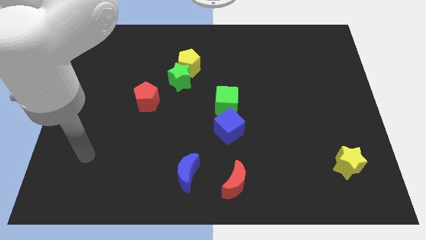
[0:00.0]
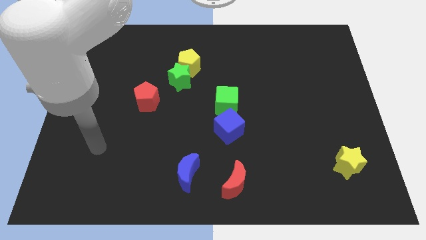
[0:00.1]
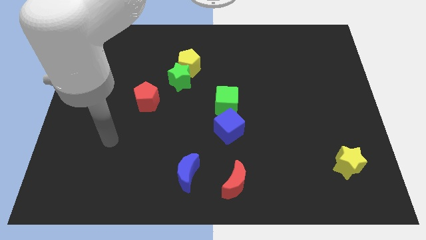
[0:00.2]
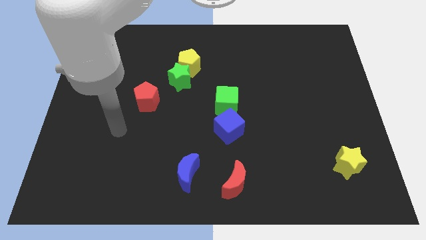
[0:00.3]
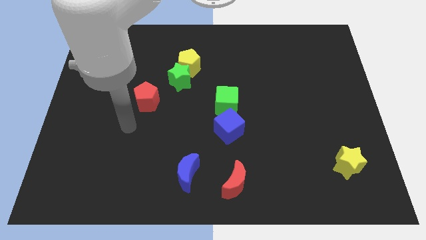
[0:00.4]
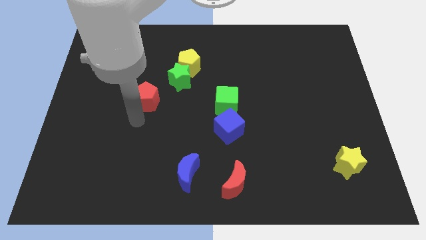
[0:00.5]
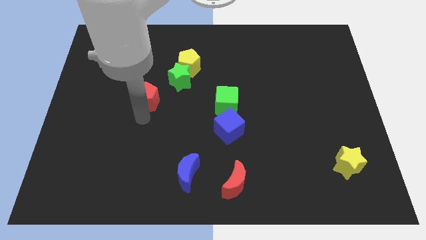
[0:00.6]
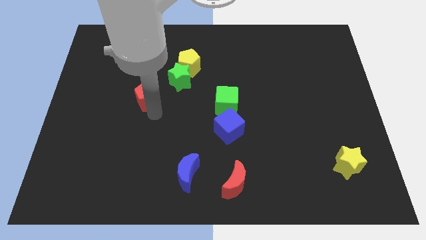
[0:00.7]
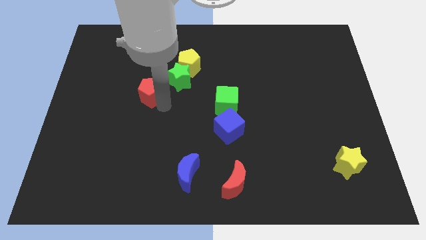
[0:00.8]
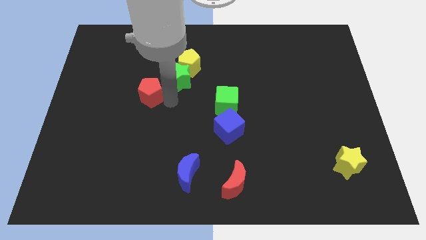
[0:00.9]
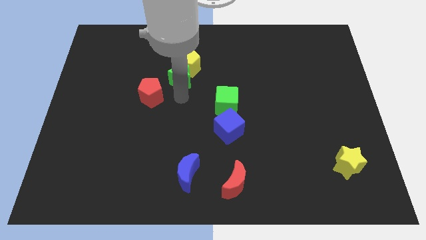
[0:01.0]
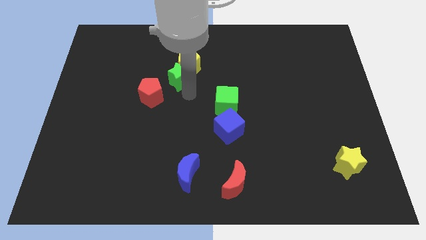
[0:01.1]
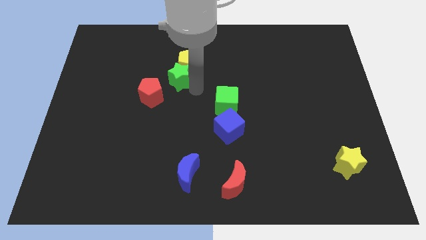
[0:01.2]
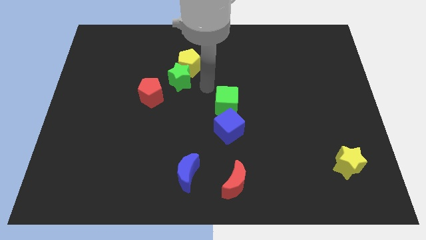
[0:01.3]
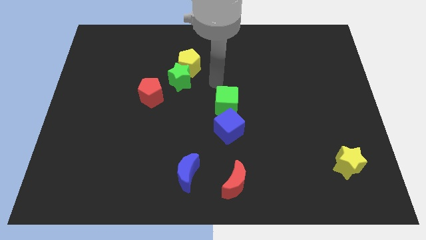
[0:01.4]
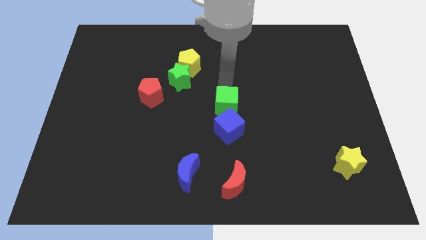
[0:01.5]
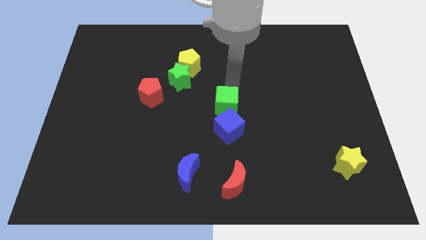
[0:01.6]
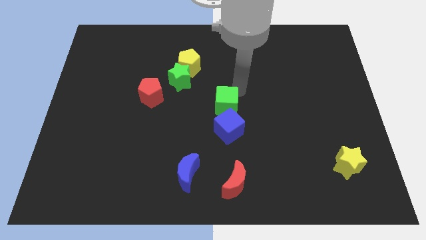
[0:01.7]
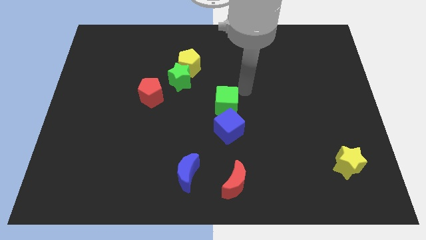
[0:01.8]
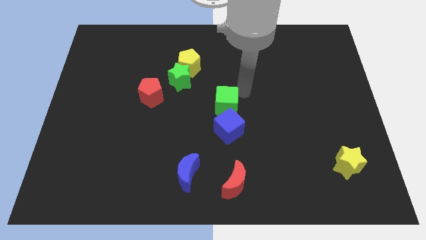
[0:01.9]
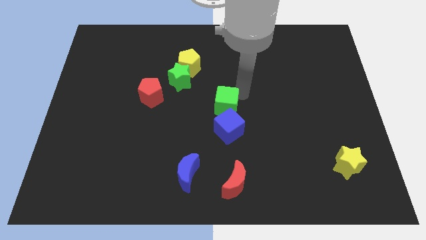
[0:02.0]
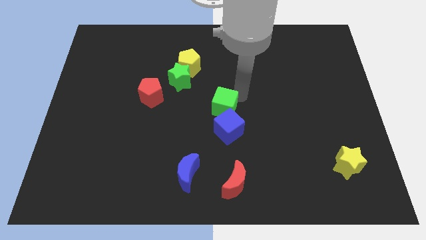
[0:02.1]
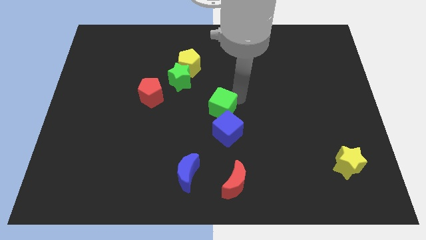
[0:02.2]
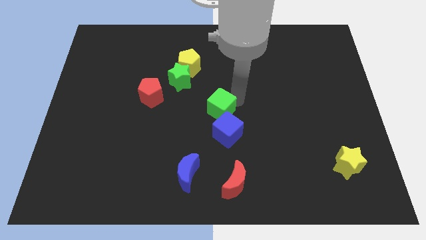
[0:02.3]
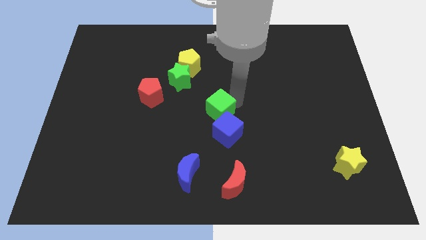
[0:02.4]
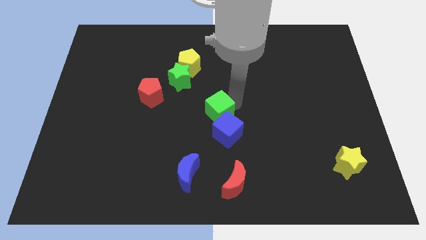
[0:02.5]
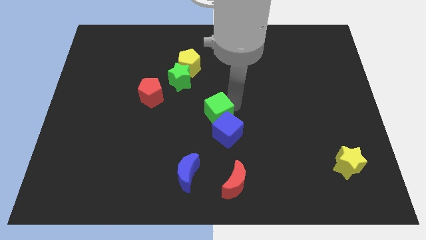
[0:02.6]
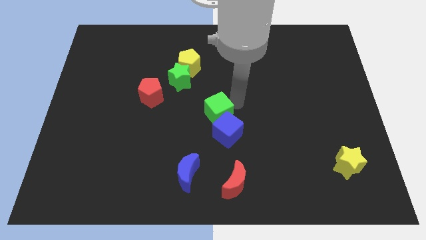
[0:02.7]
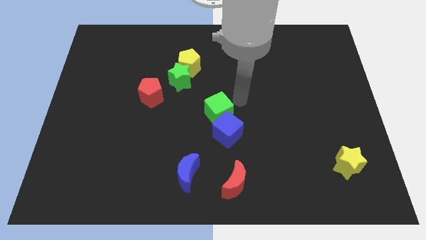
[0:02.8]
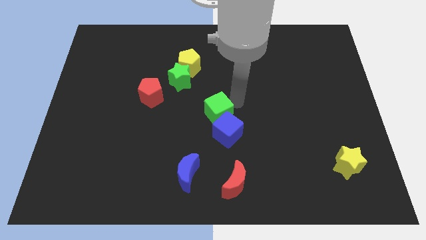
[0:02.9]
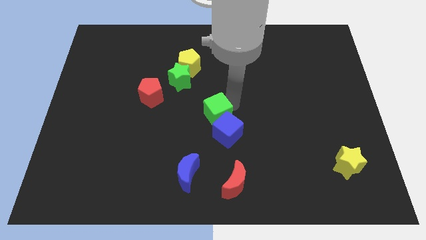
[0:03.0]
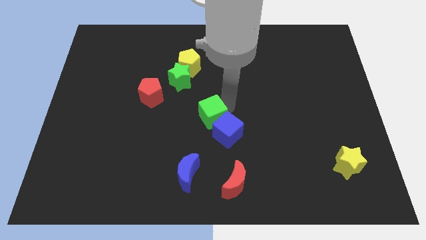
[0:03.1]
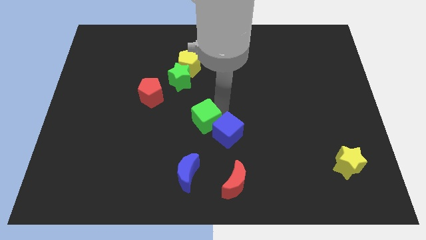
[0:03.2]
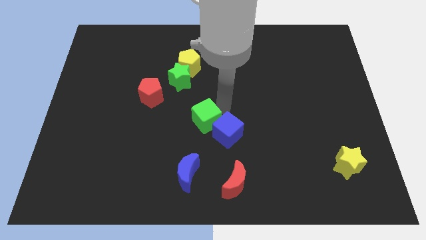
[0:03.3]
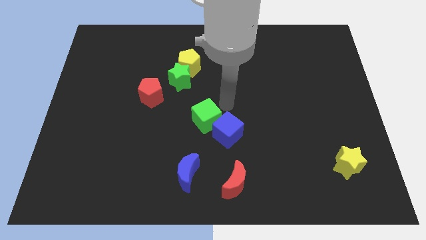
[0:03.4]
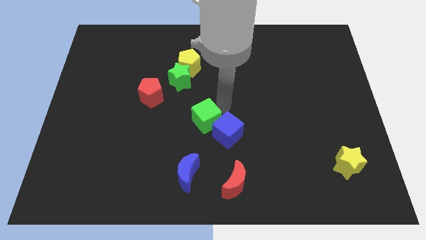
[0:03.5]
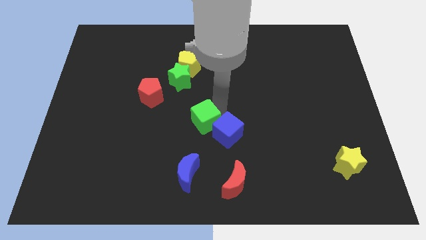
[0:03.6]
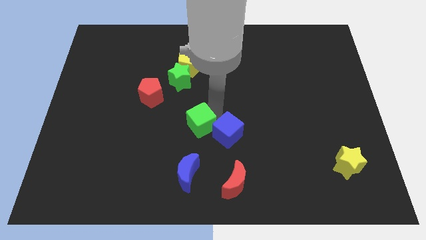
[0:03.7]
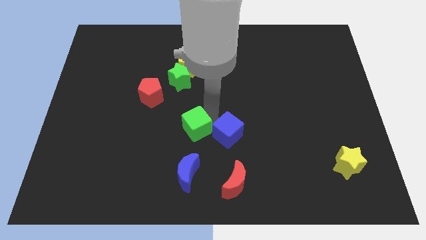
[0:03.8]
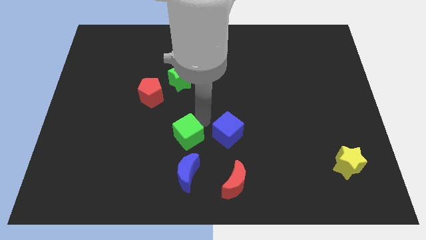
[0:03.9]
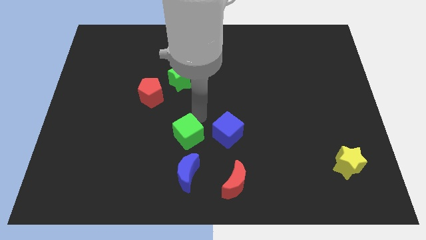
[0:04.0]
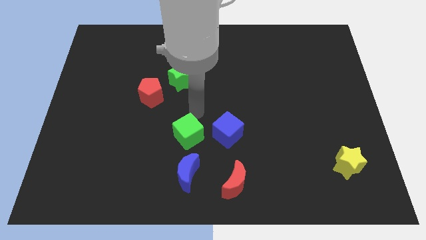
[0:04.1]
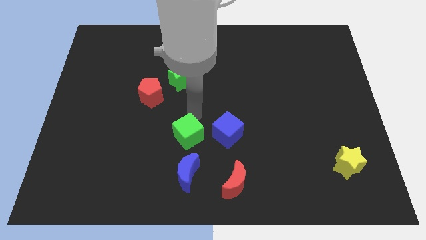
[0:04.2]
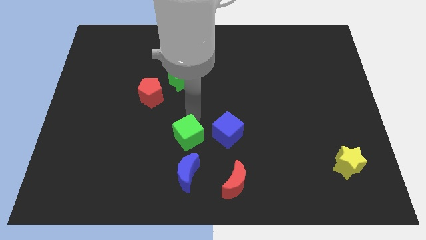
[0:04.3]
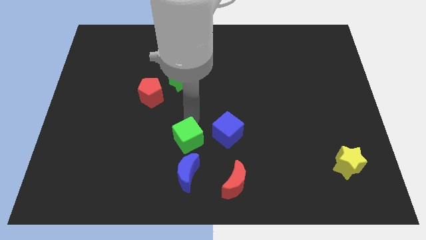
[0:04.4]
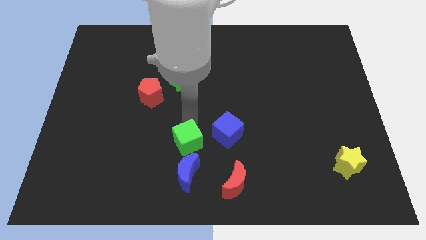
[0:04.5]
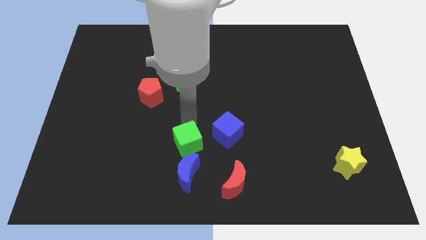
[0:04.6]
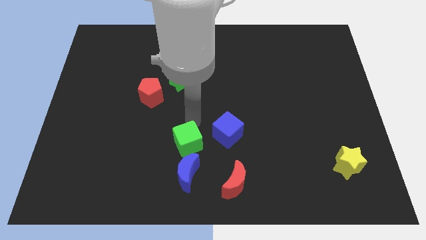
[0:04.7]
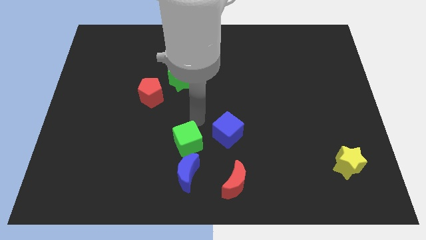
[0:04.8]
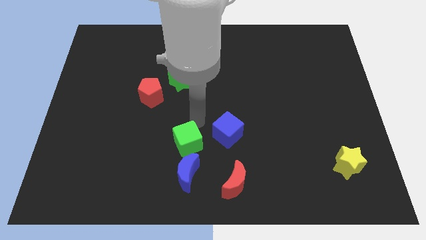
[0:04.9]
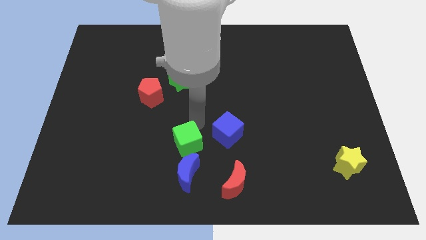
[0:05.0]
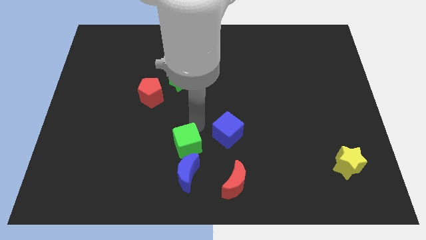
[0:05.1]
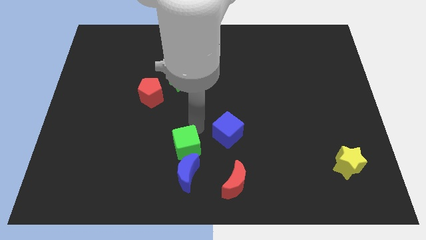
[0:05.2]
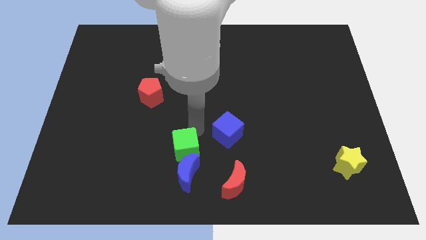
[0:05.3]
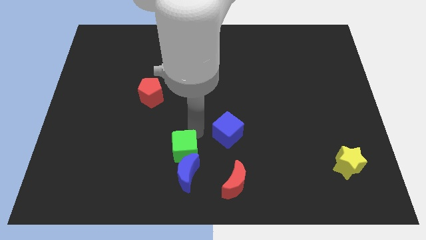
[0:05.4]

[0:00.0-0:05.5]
move the green cube close to the blue moon

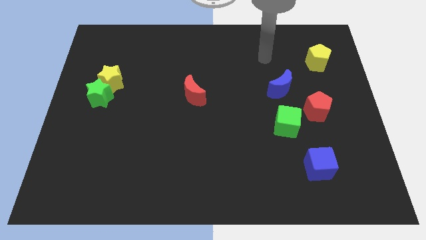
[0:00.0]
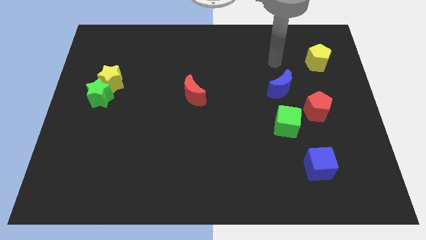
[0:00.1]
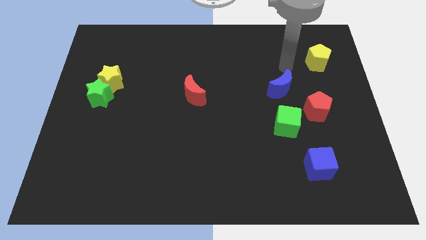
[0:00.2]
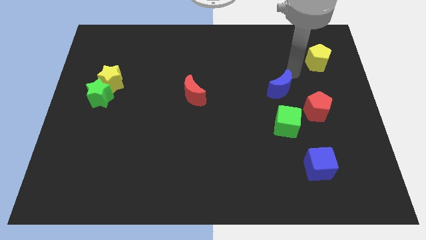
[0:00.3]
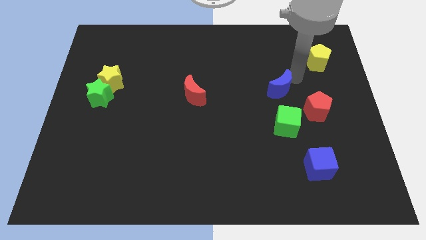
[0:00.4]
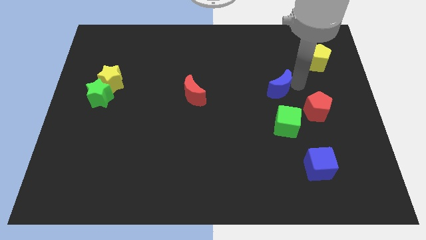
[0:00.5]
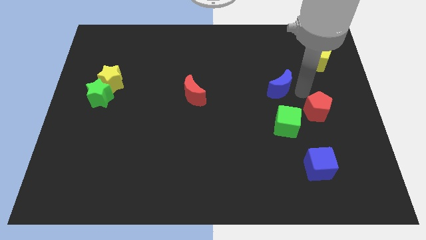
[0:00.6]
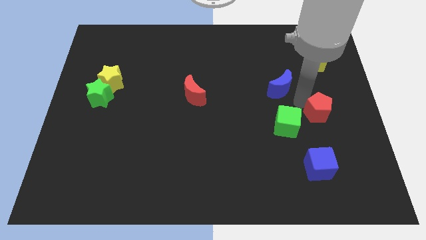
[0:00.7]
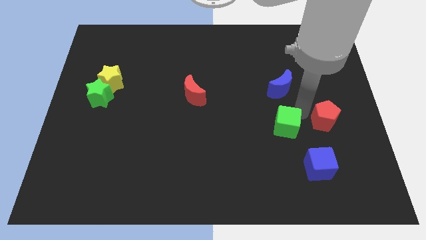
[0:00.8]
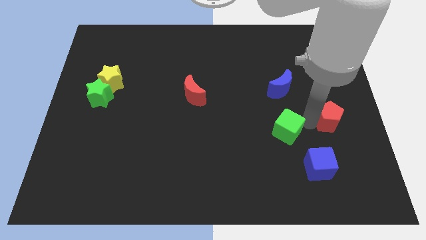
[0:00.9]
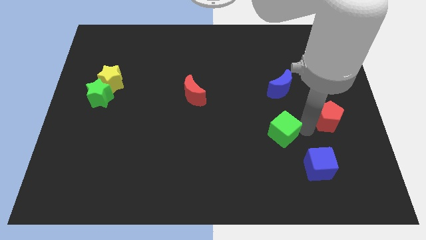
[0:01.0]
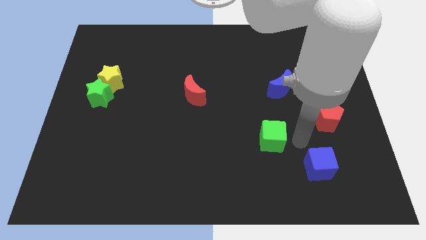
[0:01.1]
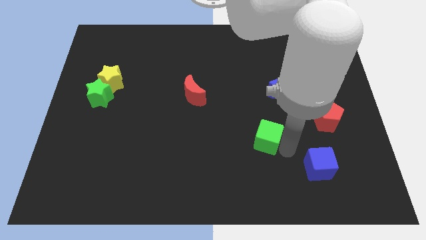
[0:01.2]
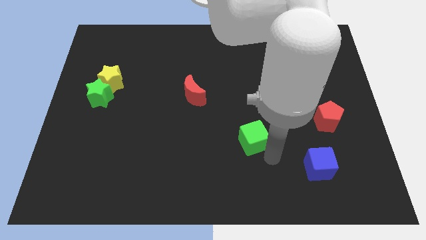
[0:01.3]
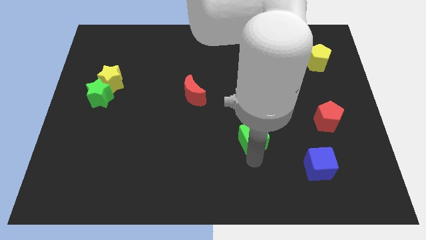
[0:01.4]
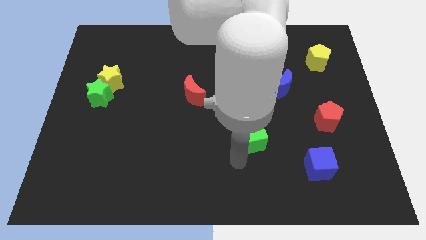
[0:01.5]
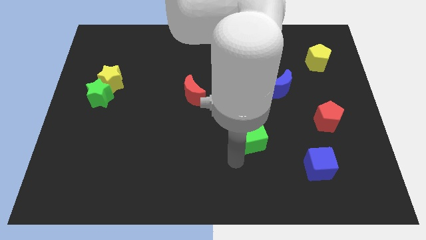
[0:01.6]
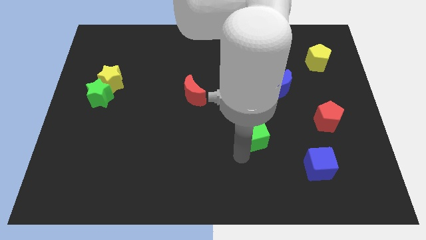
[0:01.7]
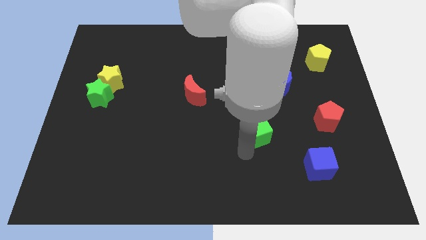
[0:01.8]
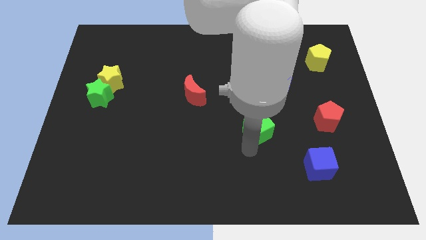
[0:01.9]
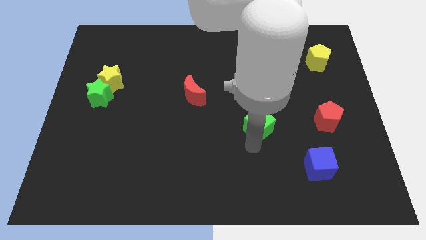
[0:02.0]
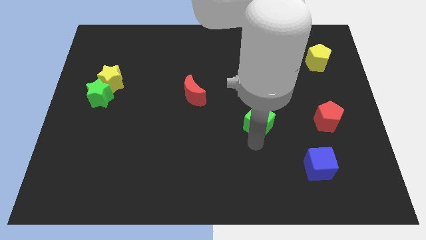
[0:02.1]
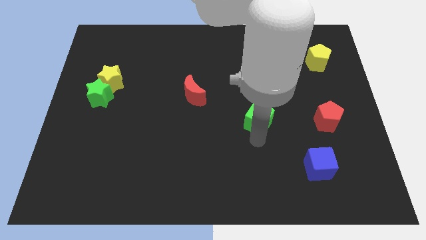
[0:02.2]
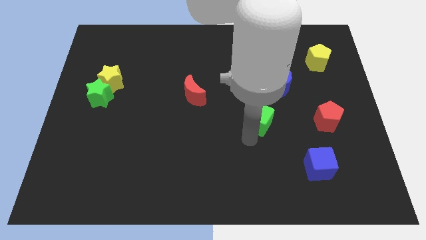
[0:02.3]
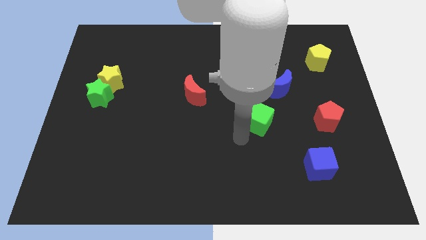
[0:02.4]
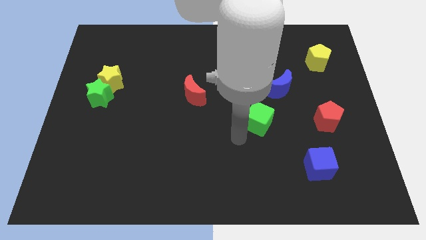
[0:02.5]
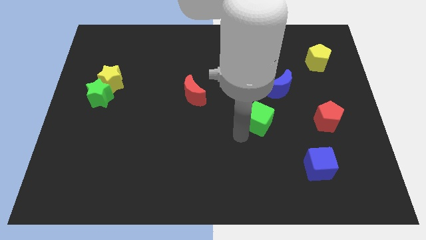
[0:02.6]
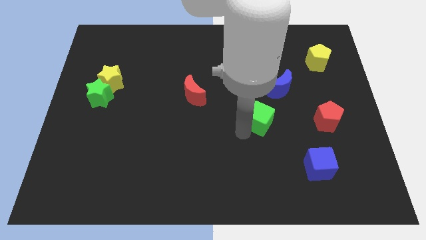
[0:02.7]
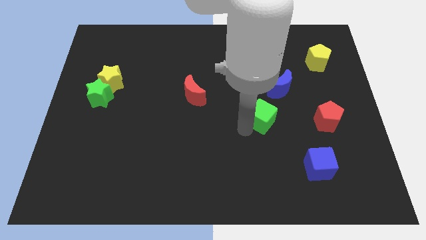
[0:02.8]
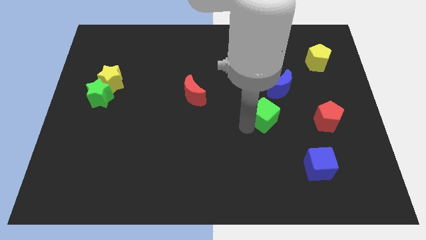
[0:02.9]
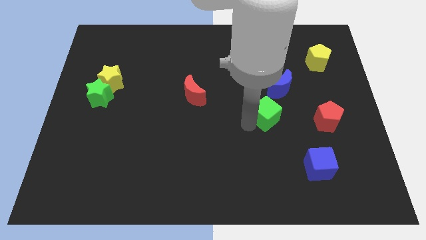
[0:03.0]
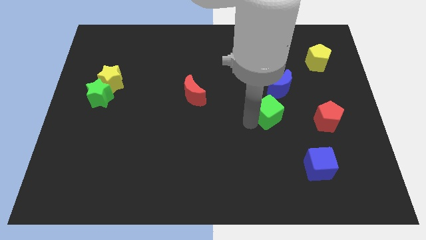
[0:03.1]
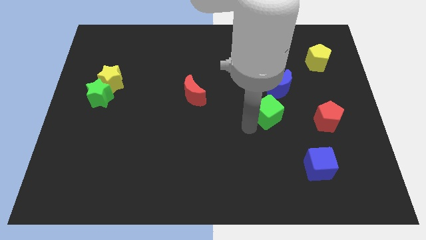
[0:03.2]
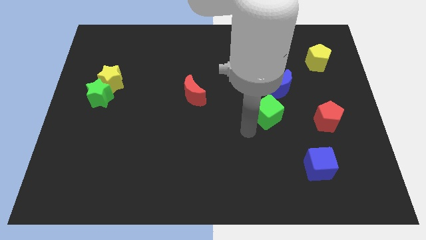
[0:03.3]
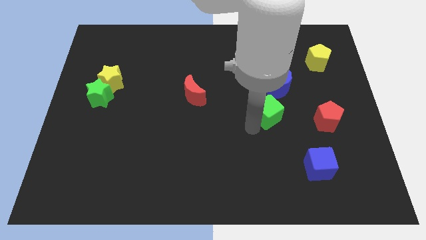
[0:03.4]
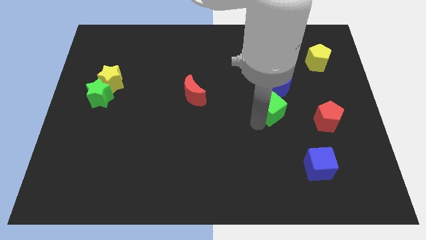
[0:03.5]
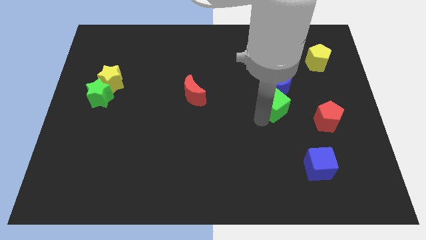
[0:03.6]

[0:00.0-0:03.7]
push the green cube to the blue moon
